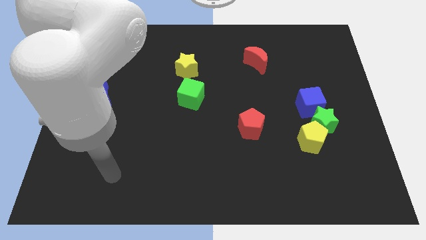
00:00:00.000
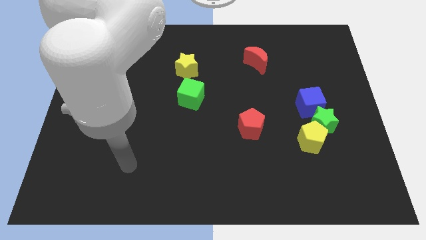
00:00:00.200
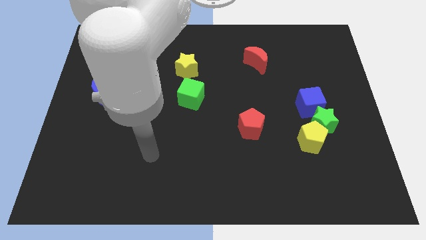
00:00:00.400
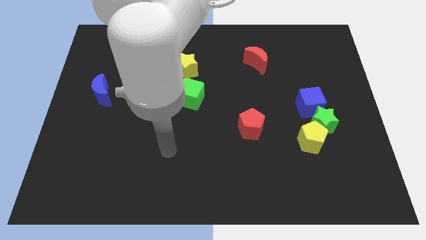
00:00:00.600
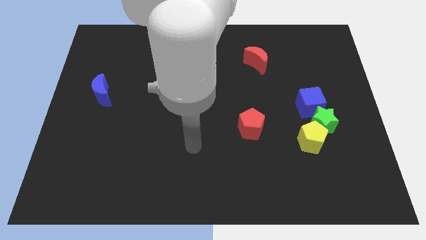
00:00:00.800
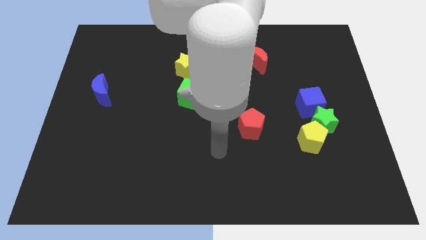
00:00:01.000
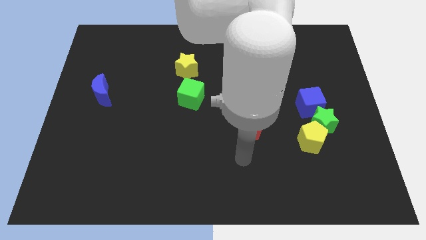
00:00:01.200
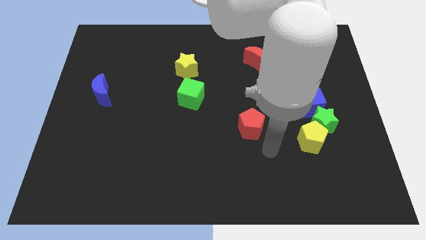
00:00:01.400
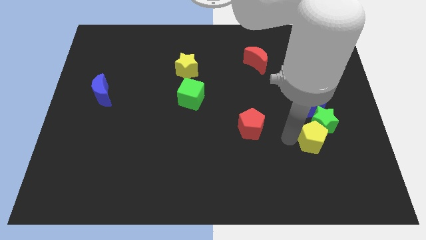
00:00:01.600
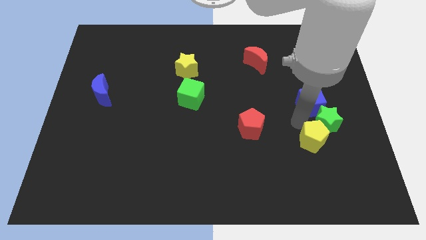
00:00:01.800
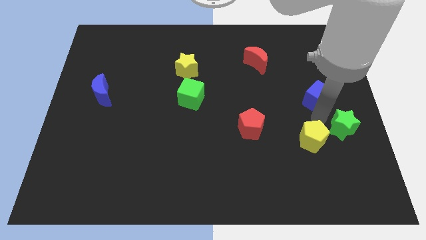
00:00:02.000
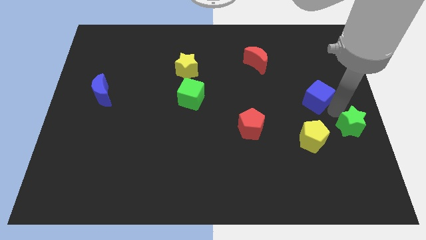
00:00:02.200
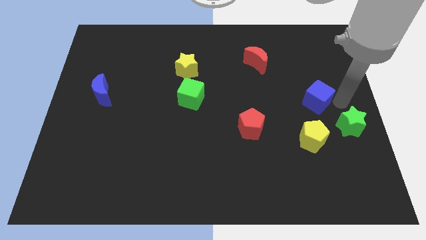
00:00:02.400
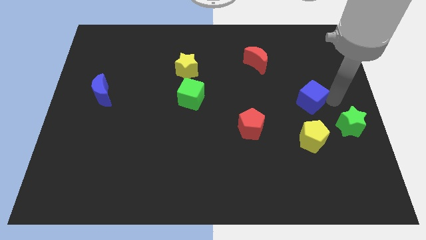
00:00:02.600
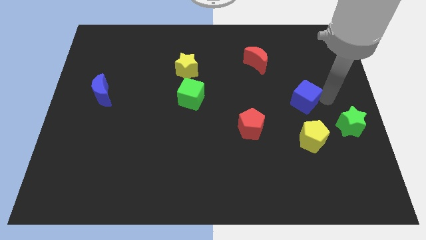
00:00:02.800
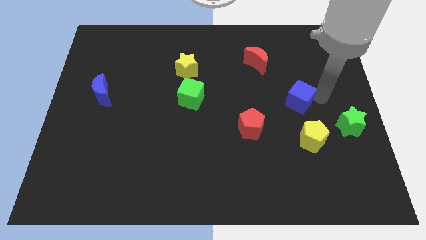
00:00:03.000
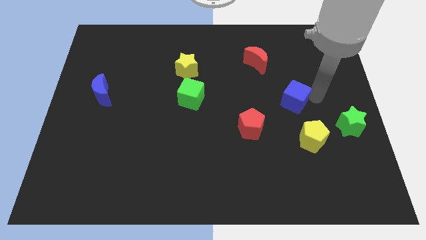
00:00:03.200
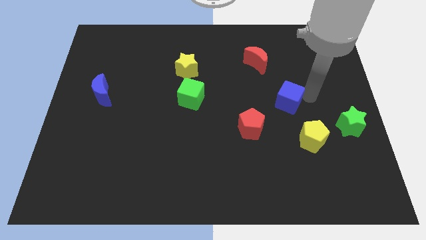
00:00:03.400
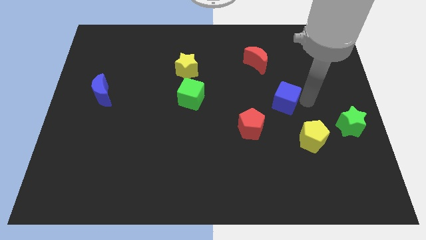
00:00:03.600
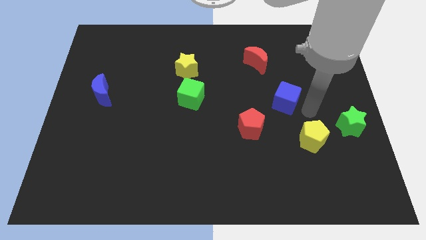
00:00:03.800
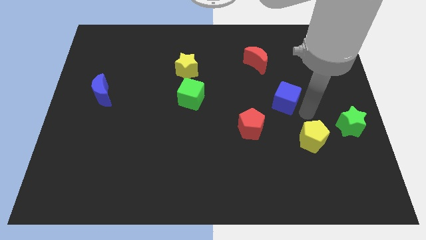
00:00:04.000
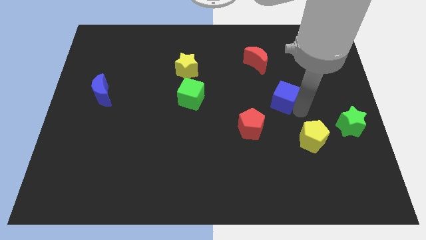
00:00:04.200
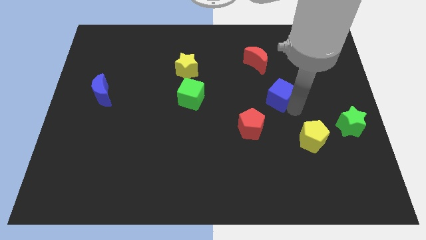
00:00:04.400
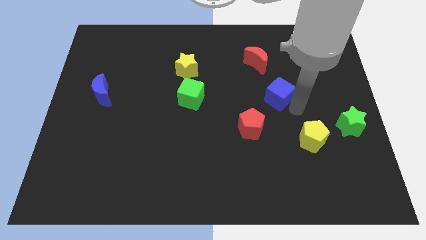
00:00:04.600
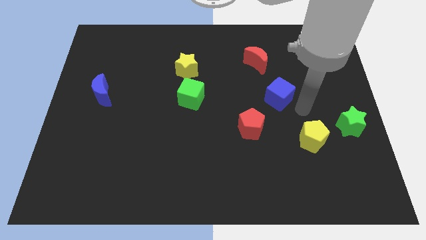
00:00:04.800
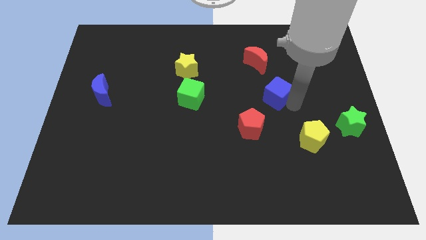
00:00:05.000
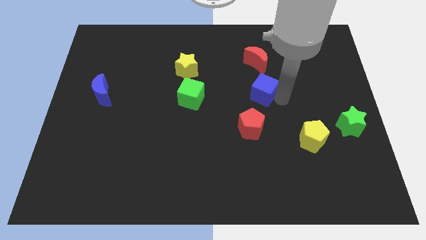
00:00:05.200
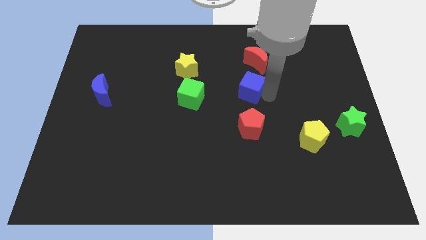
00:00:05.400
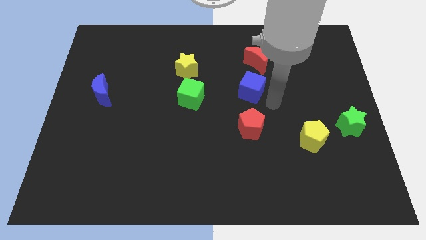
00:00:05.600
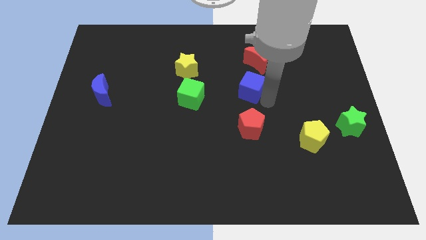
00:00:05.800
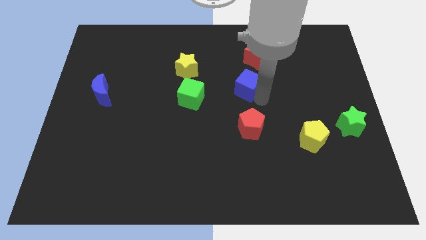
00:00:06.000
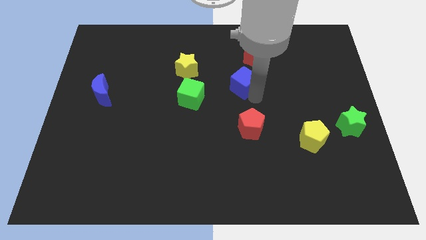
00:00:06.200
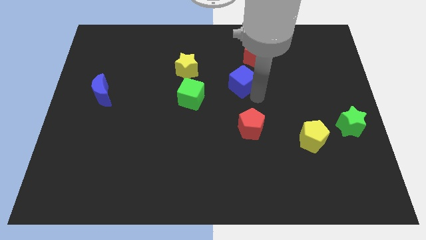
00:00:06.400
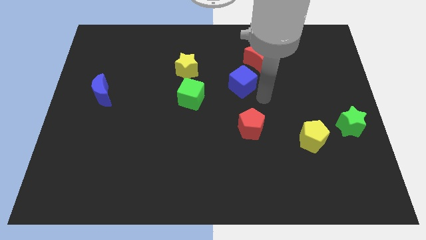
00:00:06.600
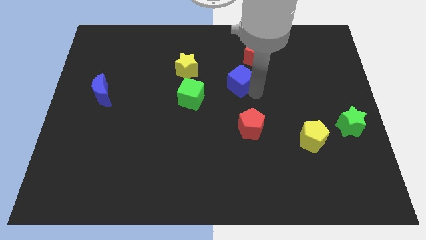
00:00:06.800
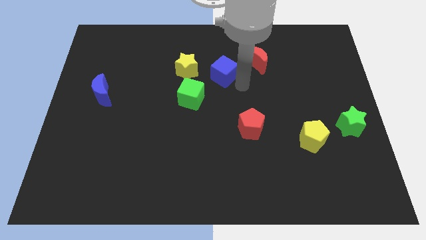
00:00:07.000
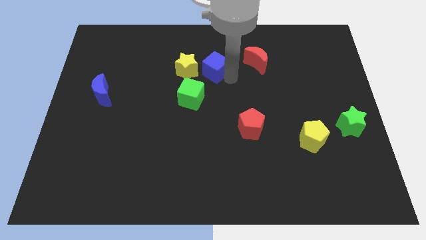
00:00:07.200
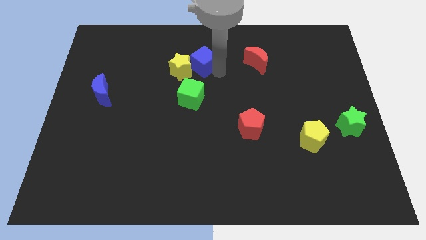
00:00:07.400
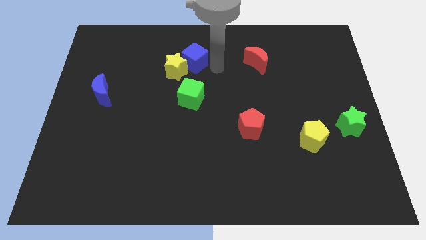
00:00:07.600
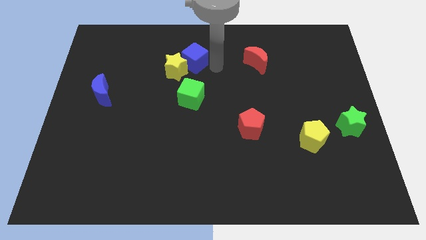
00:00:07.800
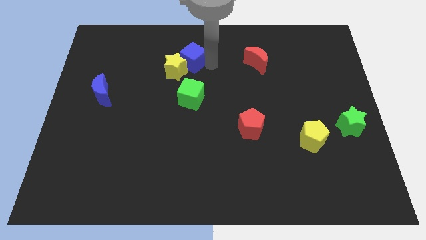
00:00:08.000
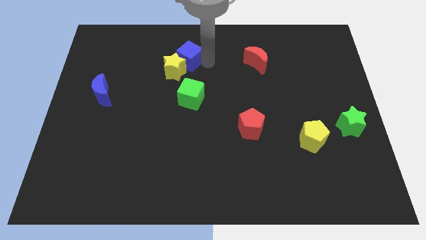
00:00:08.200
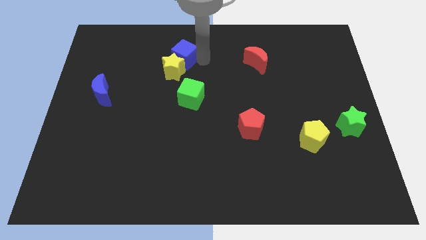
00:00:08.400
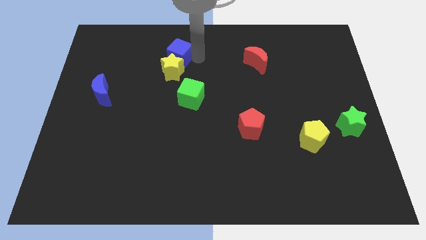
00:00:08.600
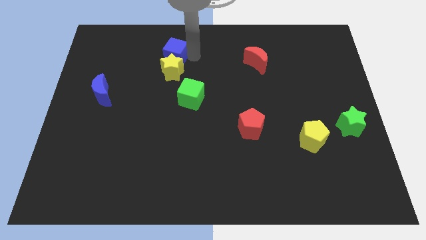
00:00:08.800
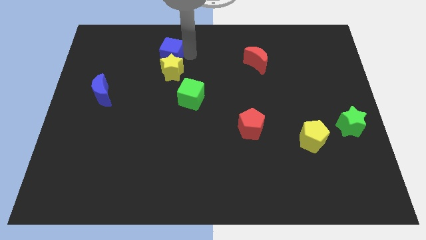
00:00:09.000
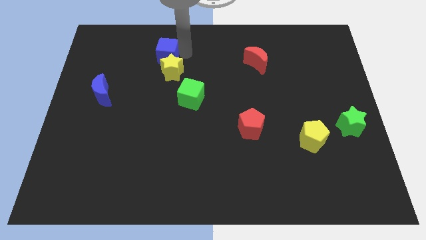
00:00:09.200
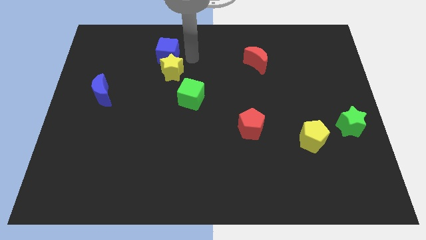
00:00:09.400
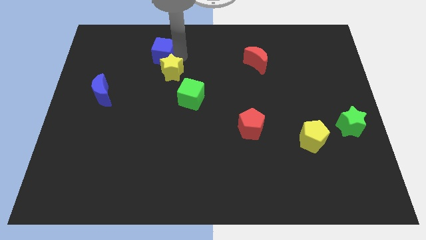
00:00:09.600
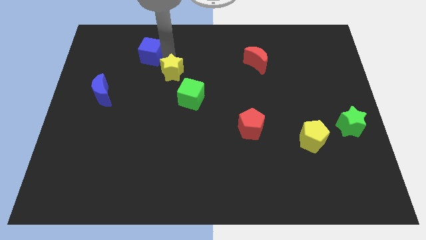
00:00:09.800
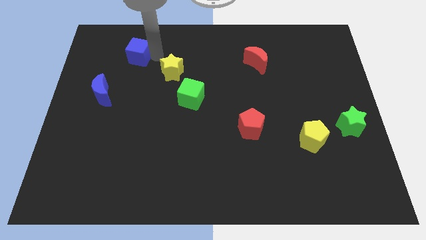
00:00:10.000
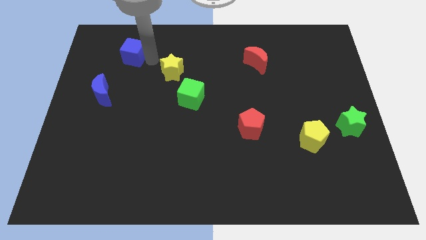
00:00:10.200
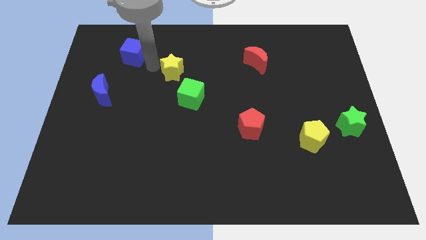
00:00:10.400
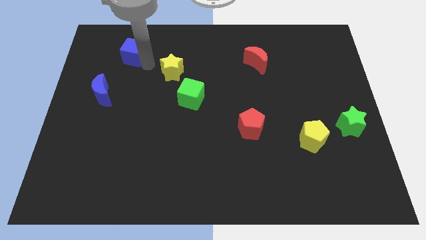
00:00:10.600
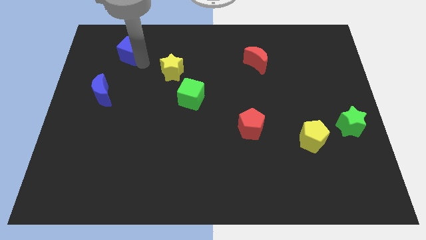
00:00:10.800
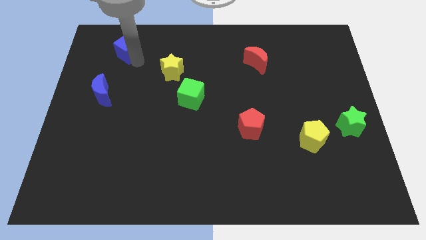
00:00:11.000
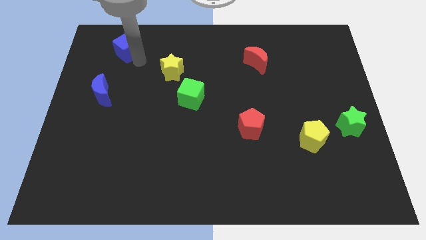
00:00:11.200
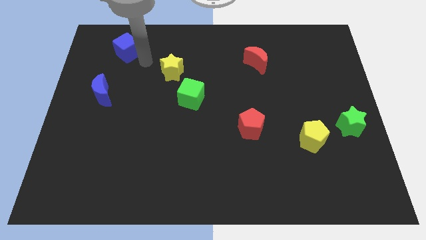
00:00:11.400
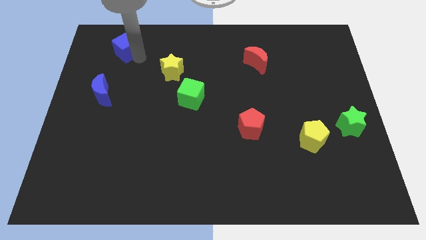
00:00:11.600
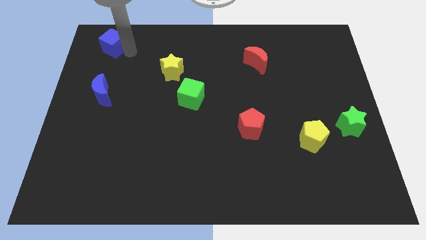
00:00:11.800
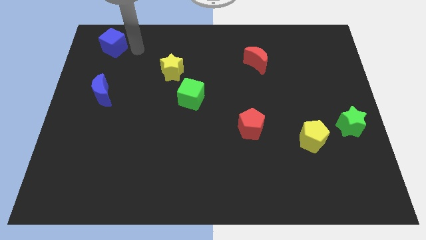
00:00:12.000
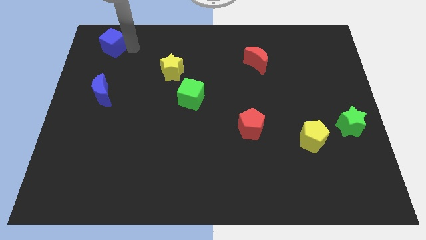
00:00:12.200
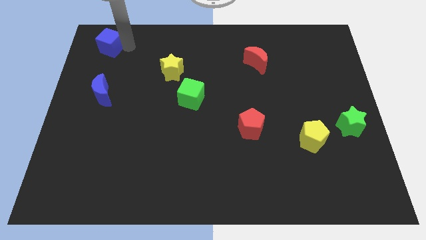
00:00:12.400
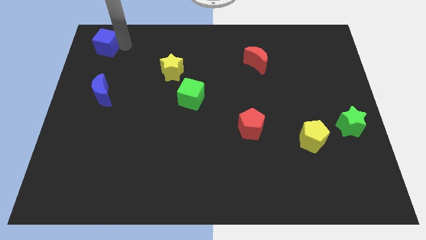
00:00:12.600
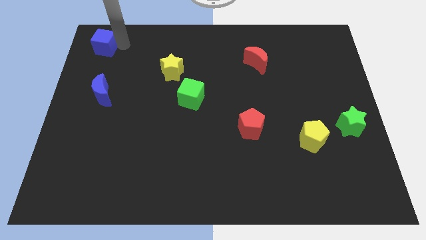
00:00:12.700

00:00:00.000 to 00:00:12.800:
move the blue cube to the top left of the board
